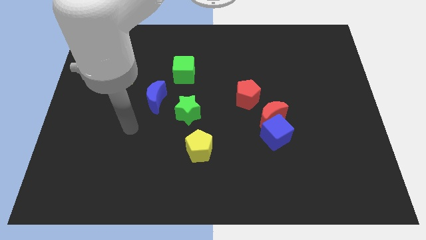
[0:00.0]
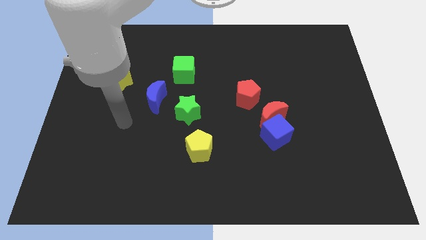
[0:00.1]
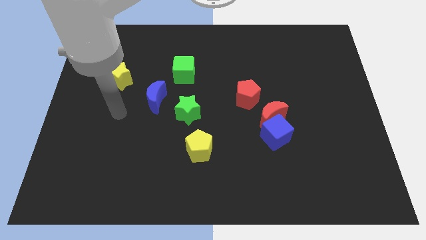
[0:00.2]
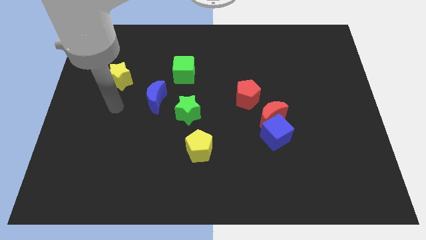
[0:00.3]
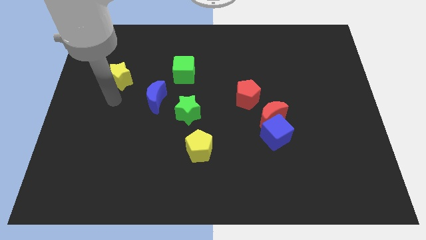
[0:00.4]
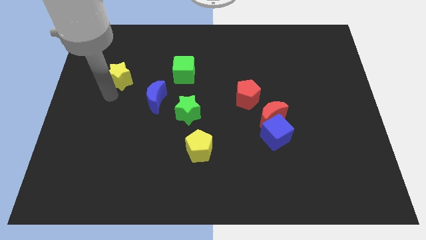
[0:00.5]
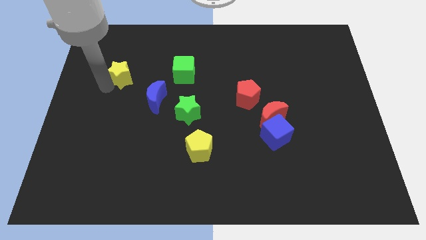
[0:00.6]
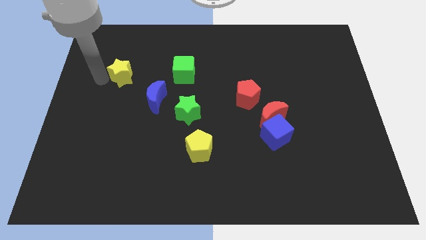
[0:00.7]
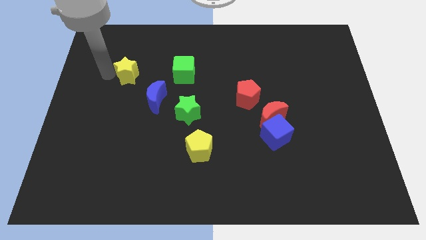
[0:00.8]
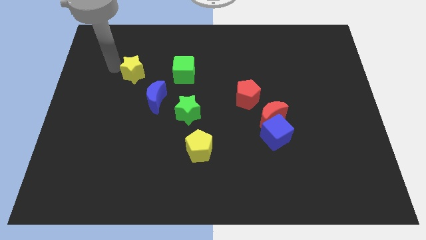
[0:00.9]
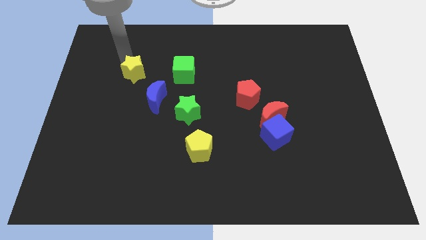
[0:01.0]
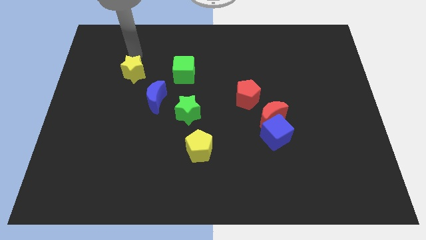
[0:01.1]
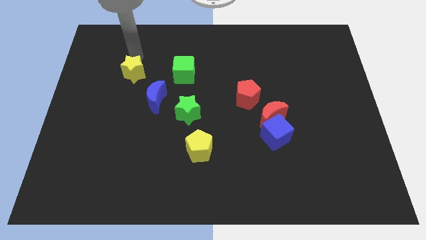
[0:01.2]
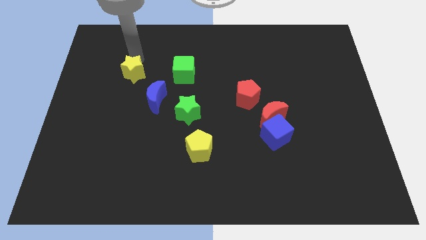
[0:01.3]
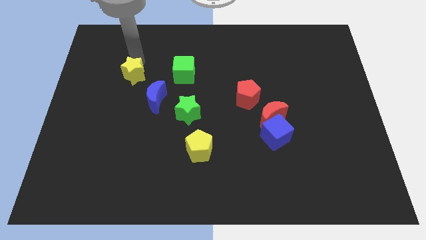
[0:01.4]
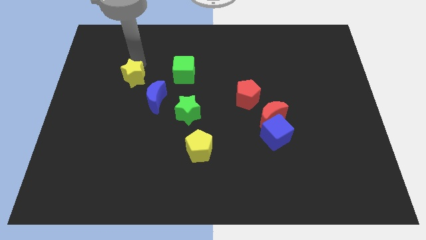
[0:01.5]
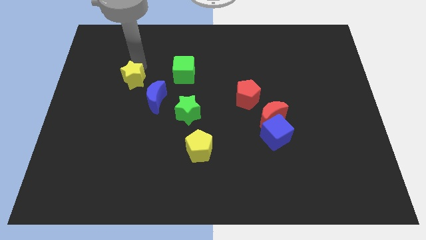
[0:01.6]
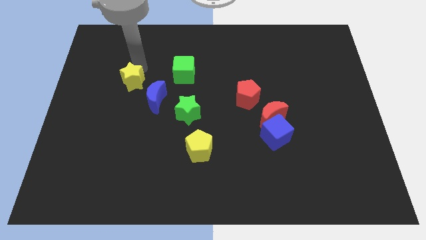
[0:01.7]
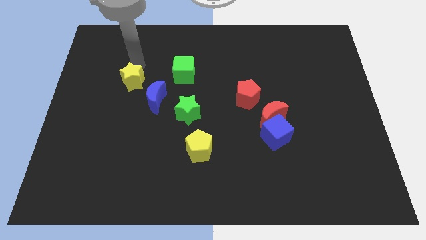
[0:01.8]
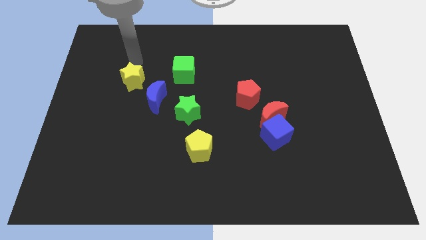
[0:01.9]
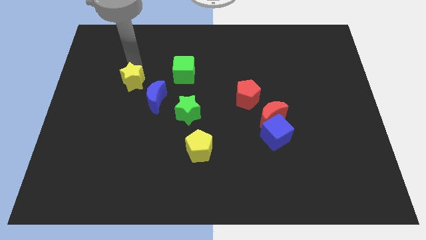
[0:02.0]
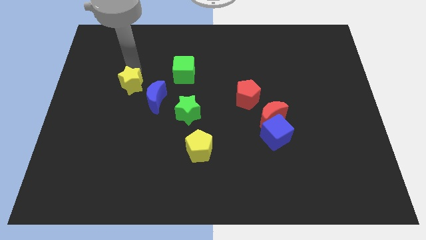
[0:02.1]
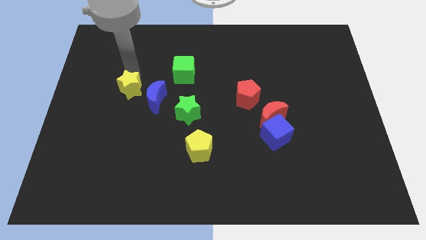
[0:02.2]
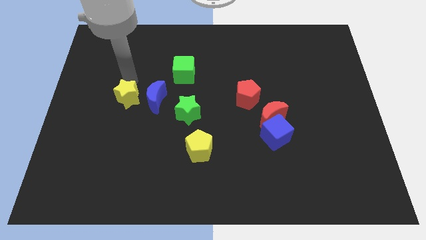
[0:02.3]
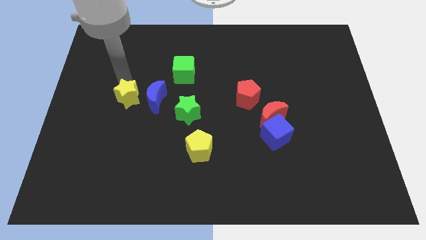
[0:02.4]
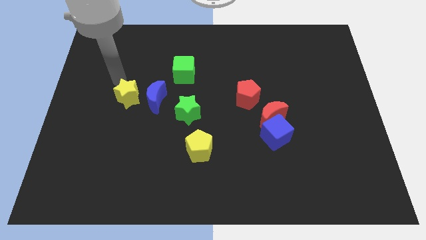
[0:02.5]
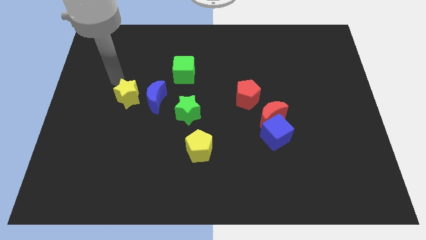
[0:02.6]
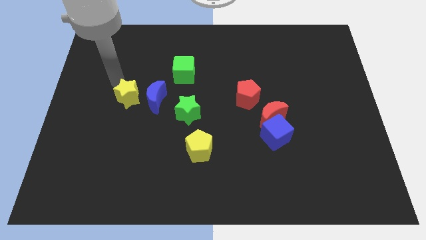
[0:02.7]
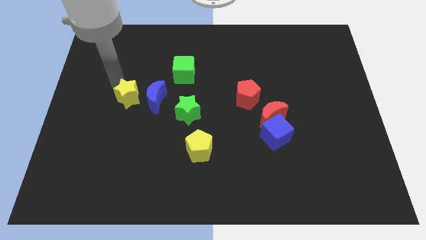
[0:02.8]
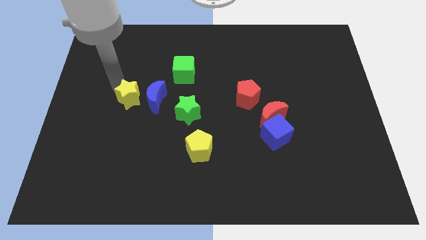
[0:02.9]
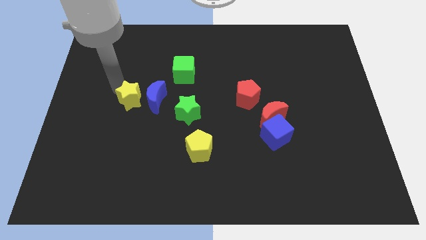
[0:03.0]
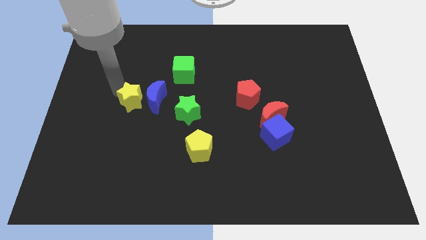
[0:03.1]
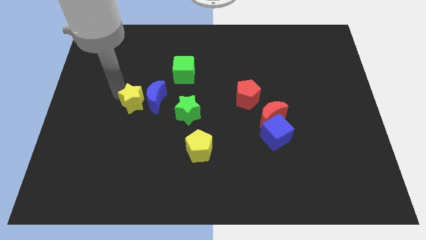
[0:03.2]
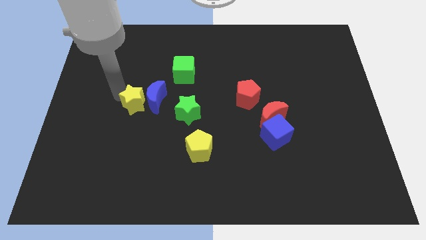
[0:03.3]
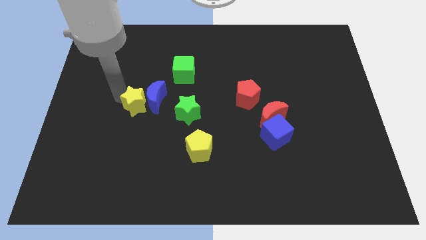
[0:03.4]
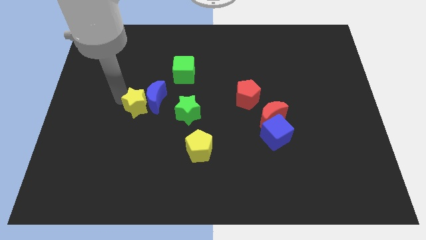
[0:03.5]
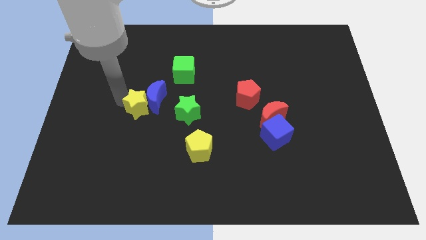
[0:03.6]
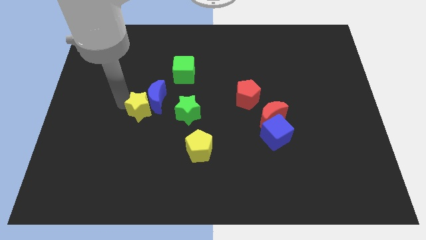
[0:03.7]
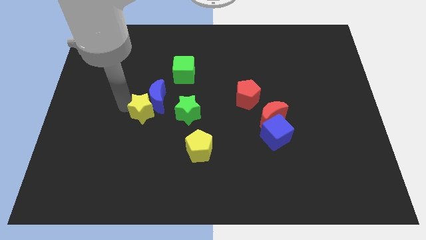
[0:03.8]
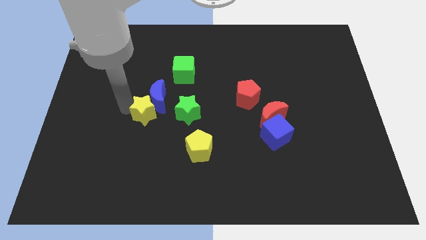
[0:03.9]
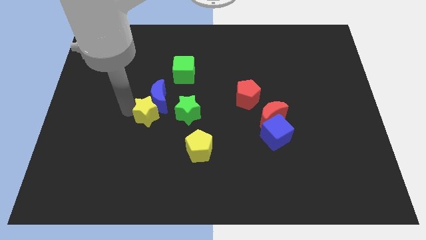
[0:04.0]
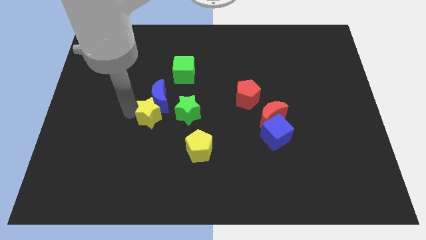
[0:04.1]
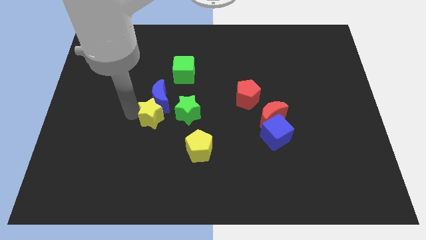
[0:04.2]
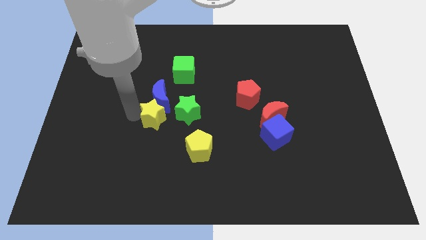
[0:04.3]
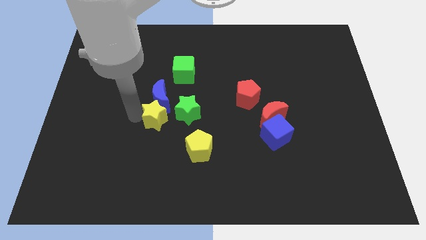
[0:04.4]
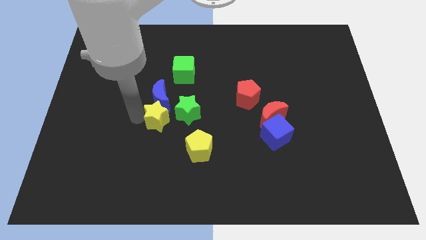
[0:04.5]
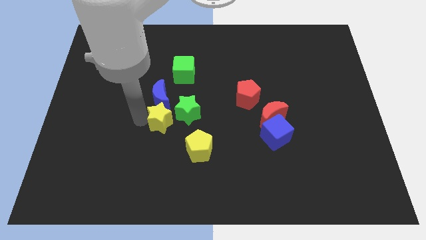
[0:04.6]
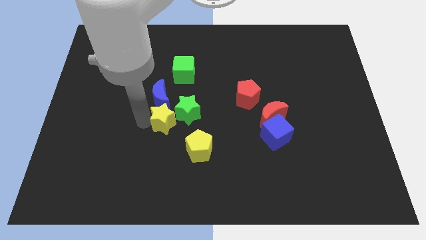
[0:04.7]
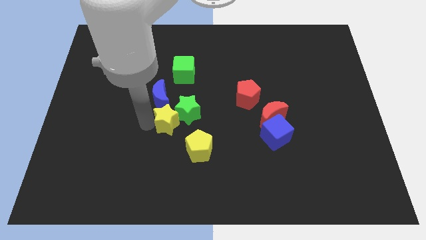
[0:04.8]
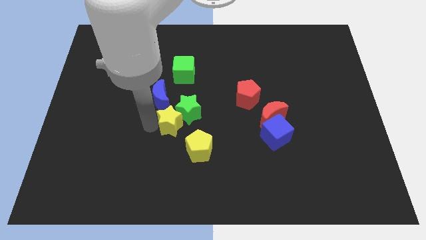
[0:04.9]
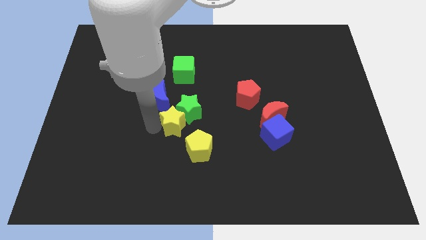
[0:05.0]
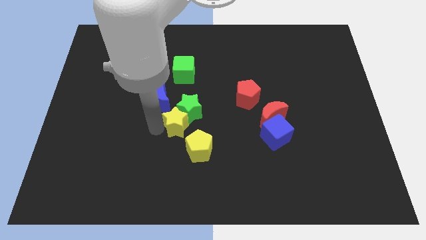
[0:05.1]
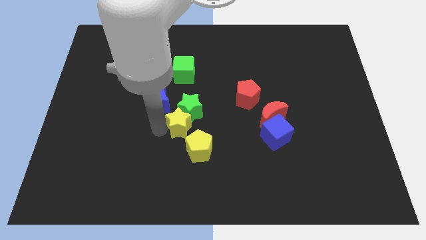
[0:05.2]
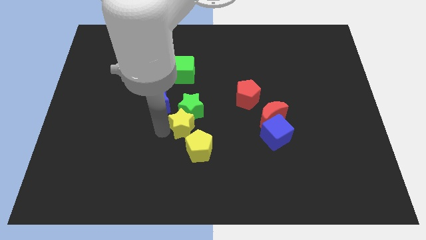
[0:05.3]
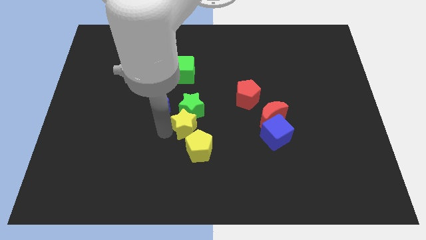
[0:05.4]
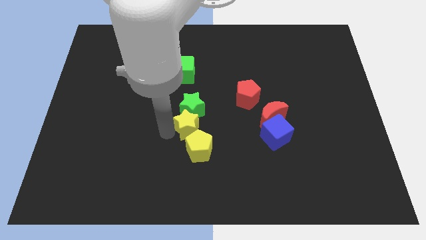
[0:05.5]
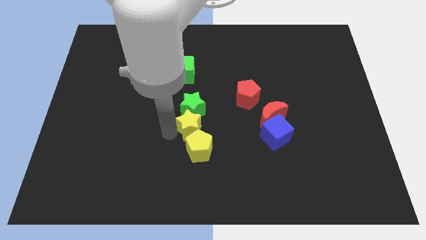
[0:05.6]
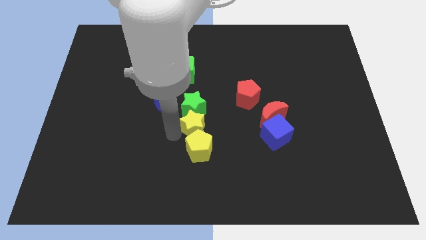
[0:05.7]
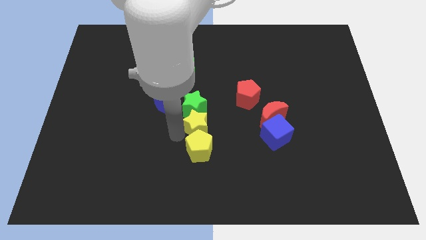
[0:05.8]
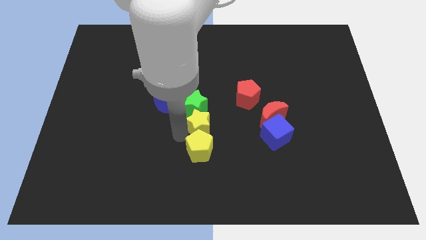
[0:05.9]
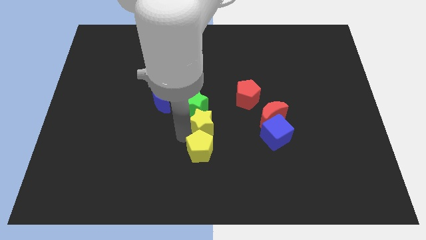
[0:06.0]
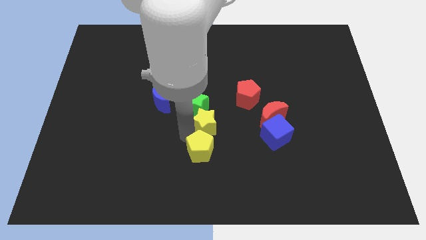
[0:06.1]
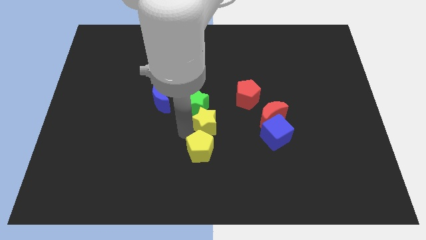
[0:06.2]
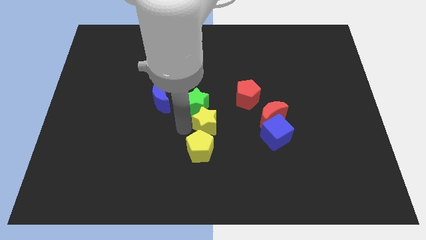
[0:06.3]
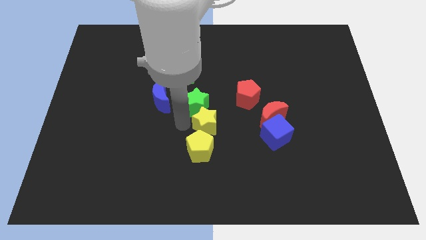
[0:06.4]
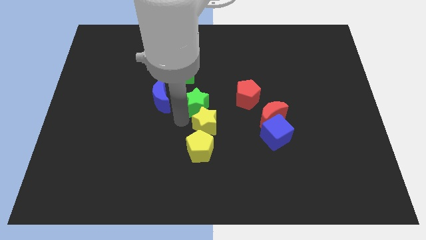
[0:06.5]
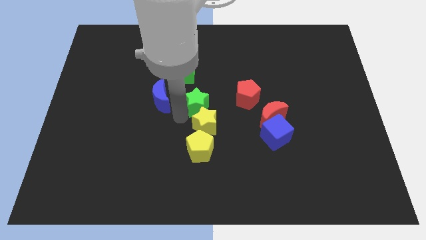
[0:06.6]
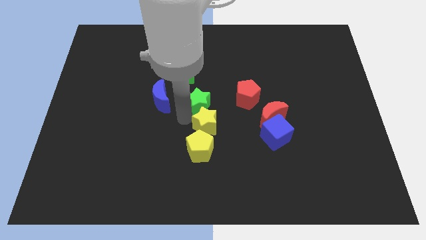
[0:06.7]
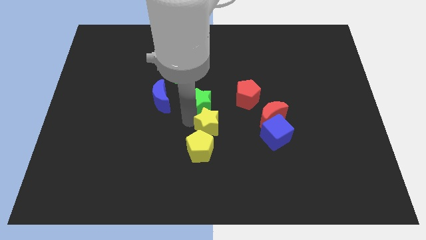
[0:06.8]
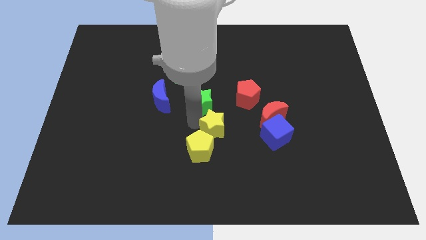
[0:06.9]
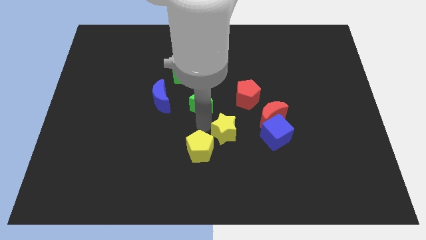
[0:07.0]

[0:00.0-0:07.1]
push the yellow star to the right of the yellow pentagon
